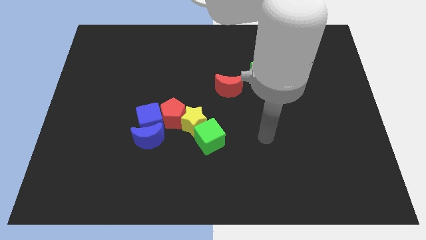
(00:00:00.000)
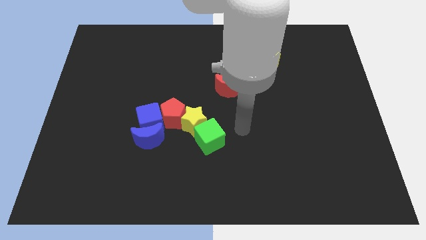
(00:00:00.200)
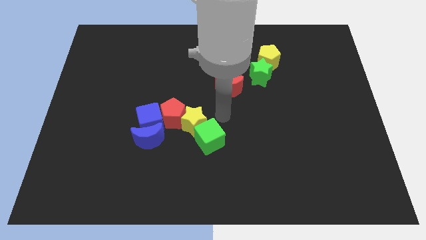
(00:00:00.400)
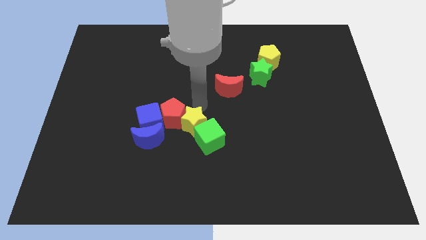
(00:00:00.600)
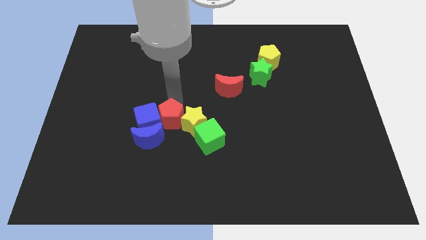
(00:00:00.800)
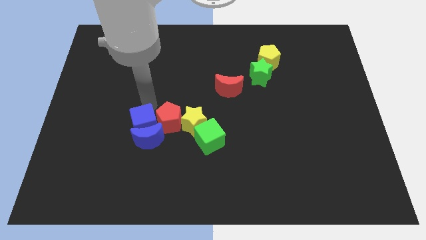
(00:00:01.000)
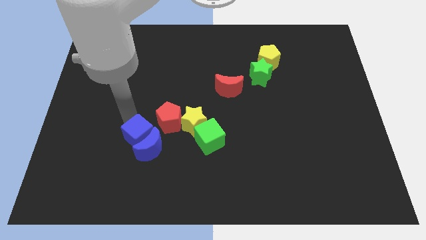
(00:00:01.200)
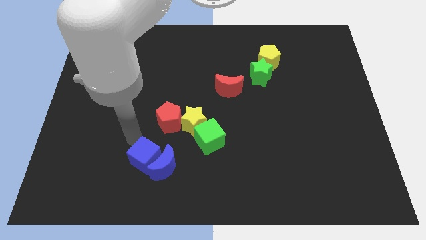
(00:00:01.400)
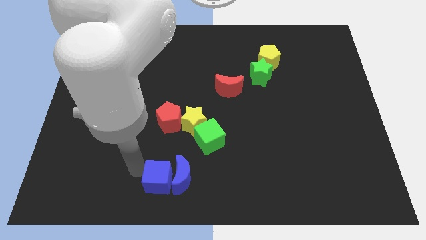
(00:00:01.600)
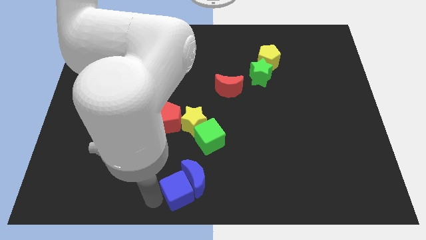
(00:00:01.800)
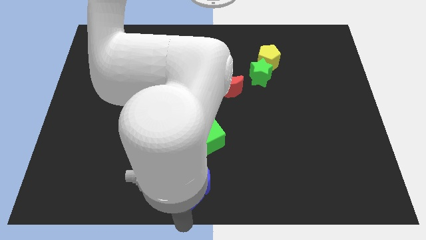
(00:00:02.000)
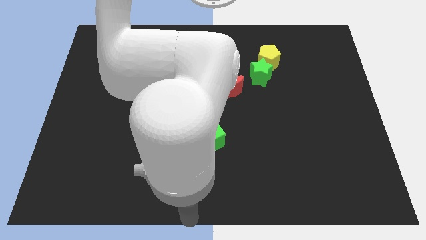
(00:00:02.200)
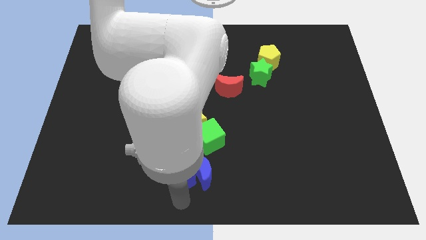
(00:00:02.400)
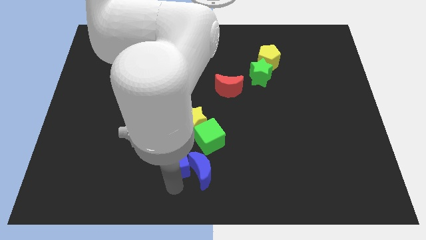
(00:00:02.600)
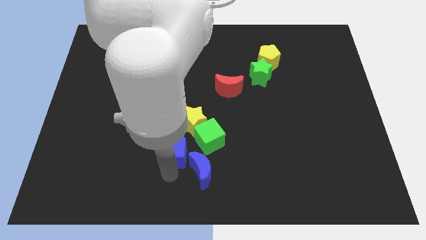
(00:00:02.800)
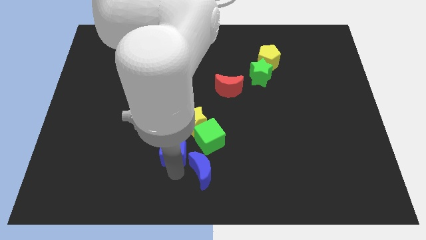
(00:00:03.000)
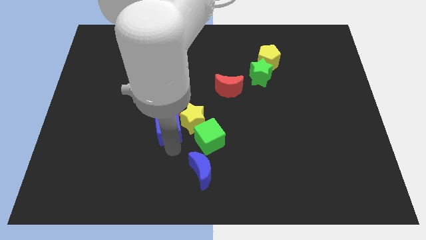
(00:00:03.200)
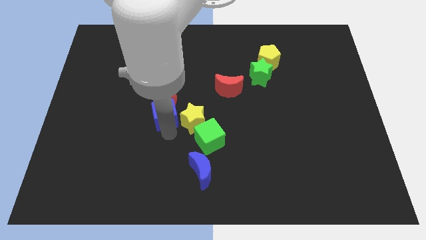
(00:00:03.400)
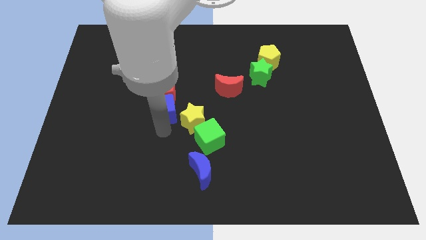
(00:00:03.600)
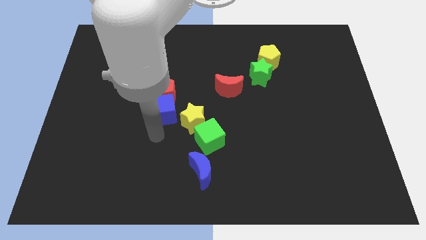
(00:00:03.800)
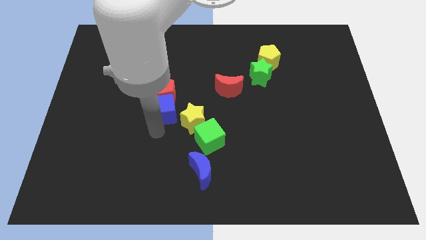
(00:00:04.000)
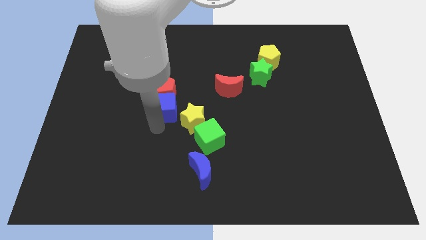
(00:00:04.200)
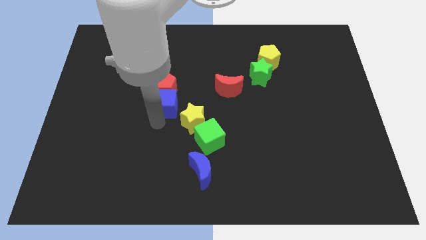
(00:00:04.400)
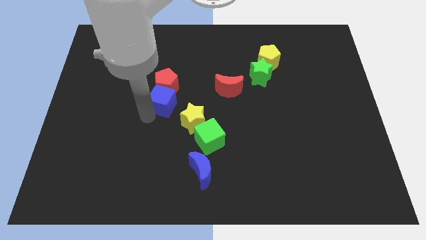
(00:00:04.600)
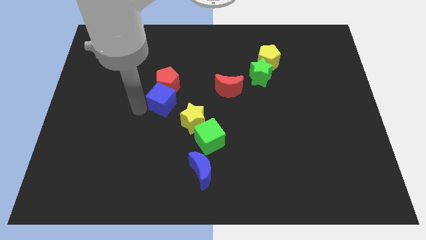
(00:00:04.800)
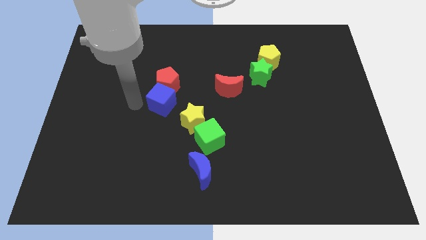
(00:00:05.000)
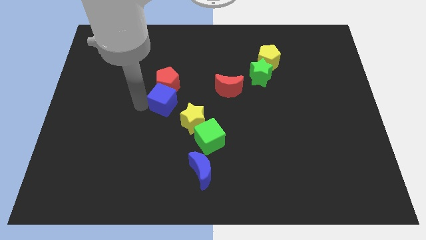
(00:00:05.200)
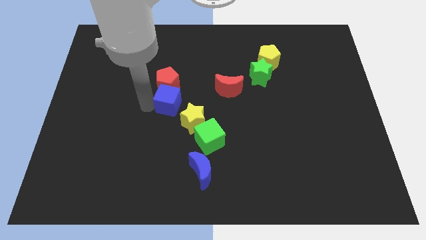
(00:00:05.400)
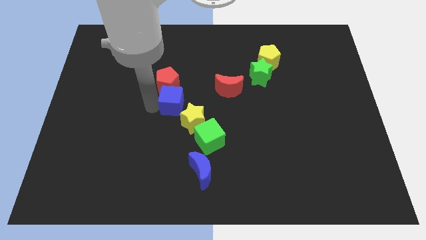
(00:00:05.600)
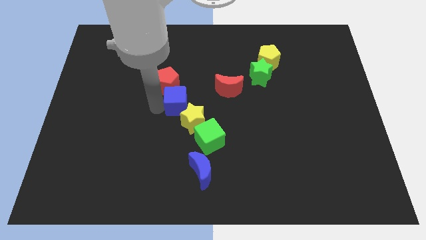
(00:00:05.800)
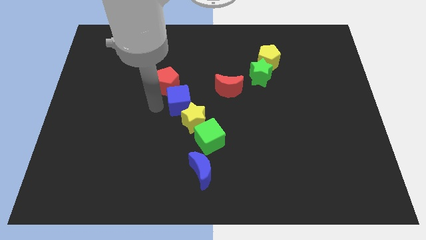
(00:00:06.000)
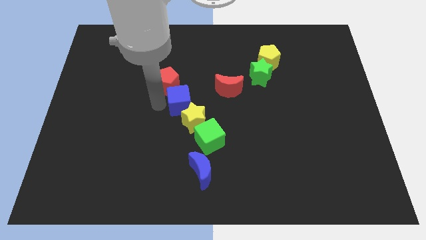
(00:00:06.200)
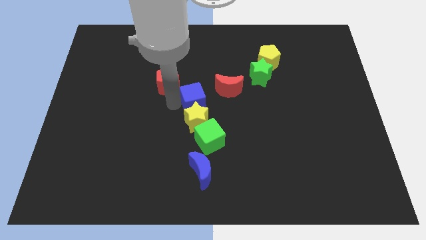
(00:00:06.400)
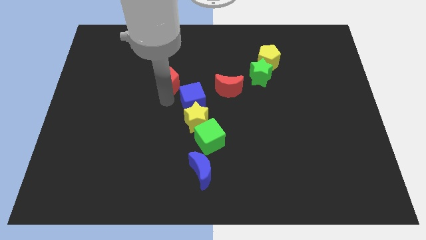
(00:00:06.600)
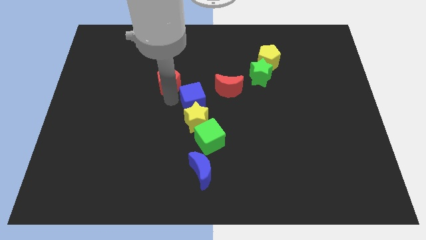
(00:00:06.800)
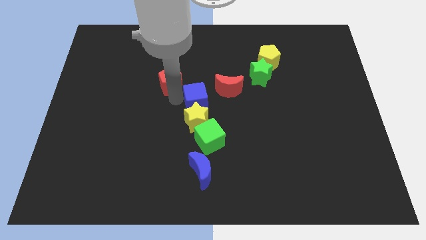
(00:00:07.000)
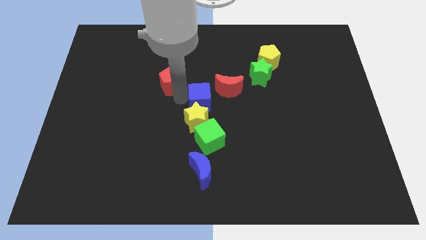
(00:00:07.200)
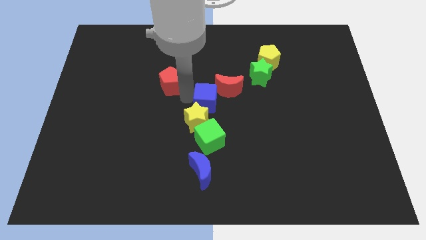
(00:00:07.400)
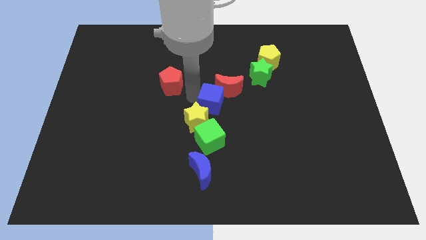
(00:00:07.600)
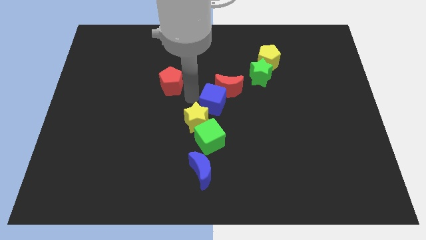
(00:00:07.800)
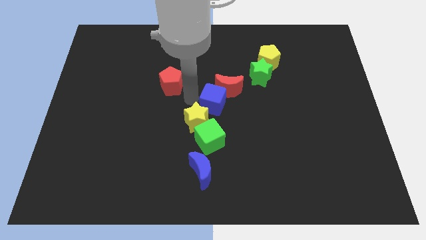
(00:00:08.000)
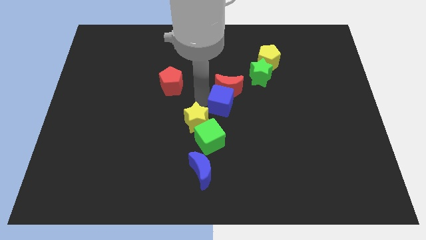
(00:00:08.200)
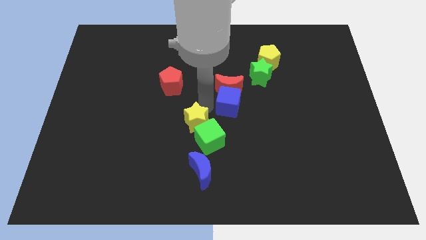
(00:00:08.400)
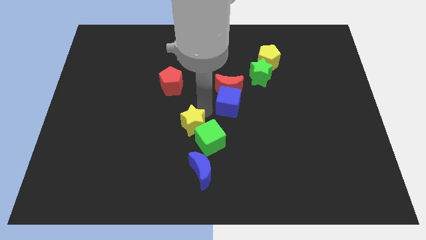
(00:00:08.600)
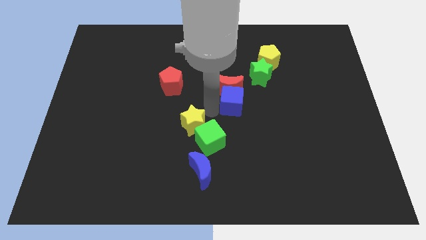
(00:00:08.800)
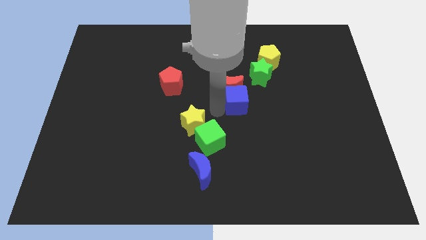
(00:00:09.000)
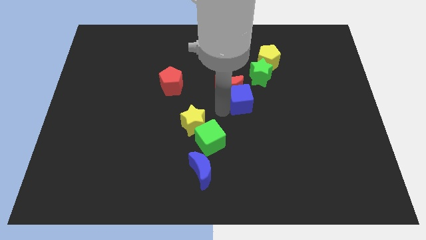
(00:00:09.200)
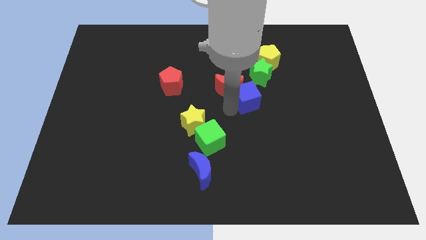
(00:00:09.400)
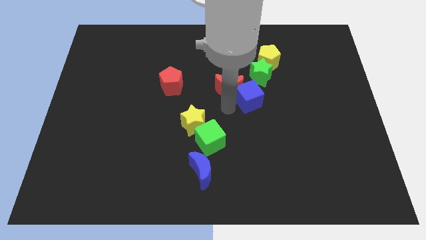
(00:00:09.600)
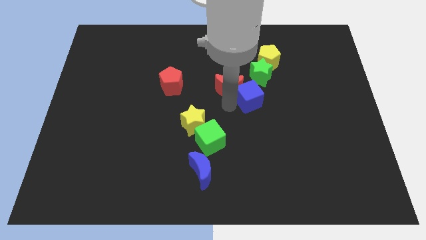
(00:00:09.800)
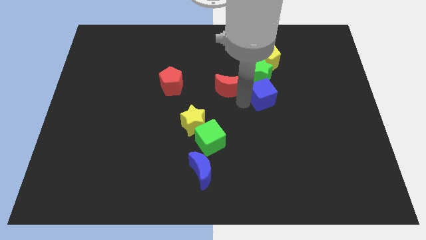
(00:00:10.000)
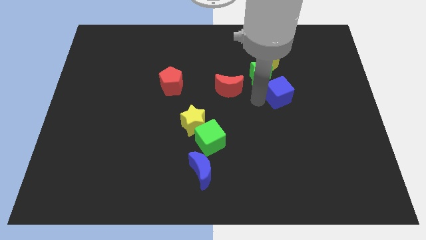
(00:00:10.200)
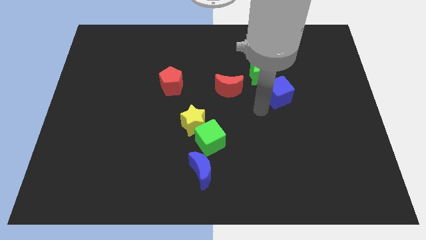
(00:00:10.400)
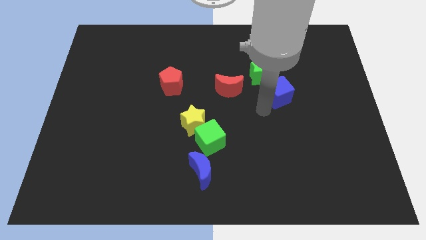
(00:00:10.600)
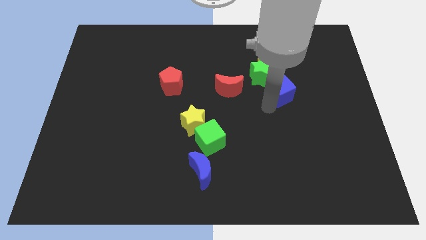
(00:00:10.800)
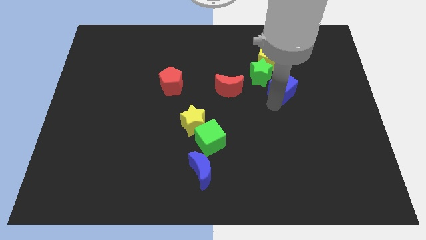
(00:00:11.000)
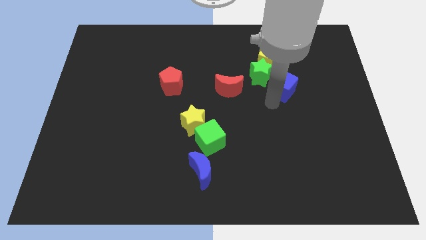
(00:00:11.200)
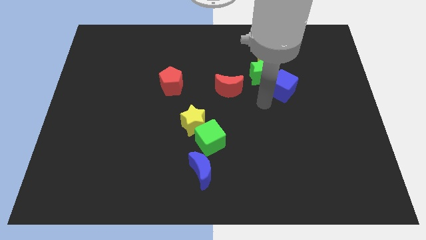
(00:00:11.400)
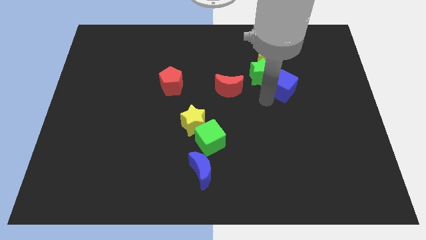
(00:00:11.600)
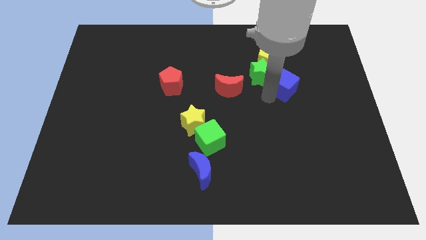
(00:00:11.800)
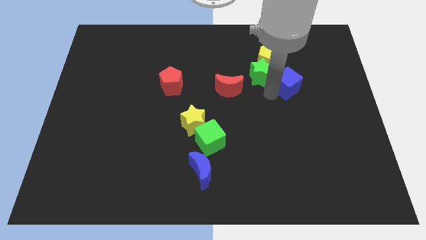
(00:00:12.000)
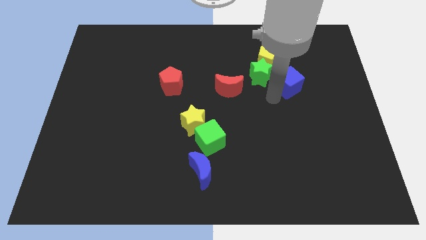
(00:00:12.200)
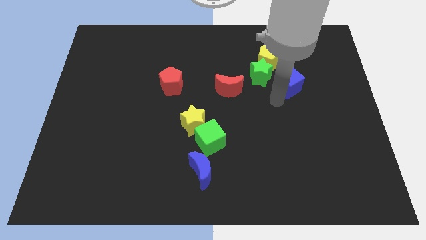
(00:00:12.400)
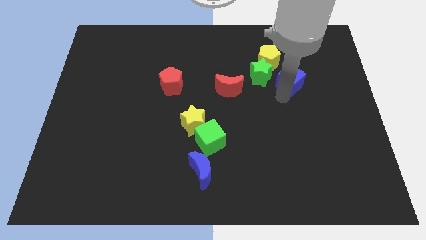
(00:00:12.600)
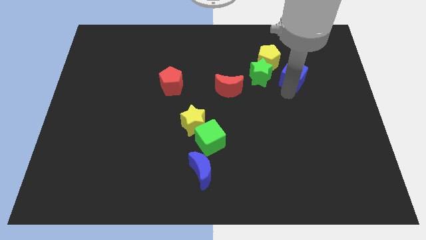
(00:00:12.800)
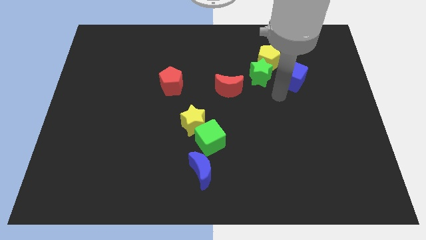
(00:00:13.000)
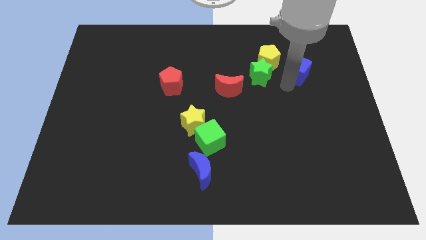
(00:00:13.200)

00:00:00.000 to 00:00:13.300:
put the blue cube to the right of the yellow pentagon
